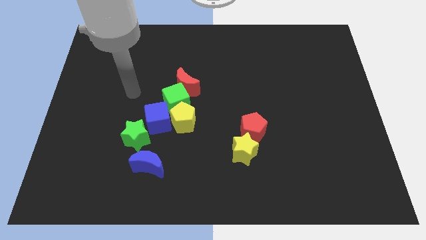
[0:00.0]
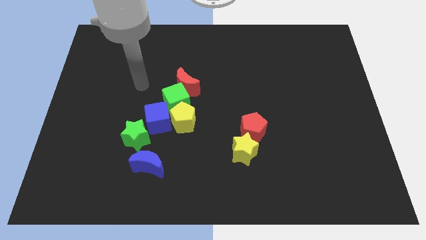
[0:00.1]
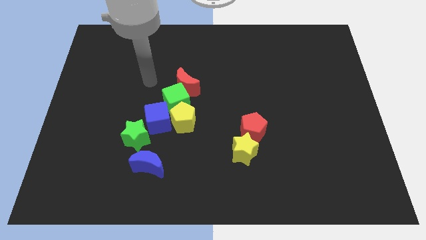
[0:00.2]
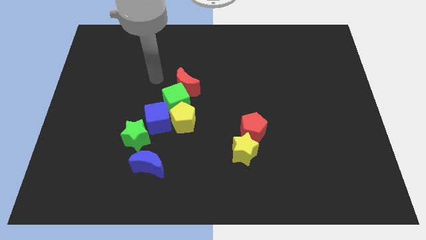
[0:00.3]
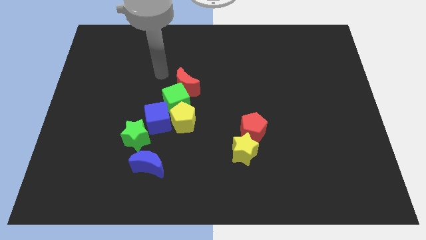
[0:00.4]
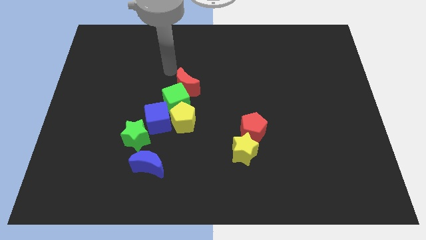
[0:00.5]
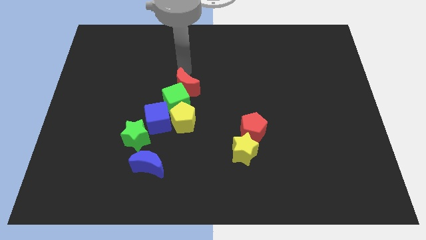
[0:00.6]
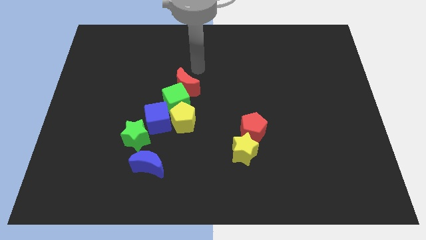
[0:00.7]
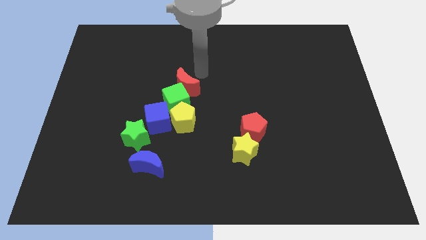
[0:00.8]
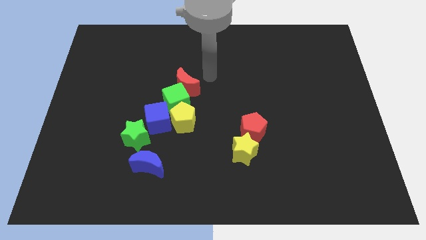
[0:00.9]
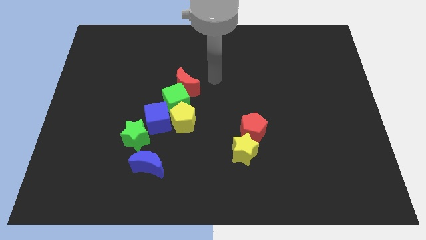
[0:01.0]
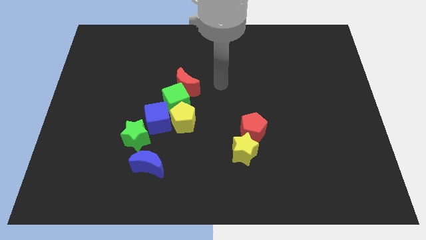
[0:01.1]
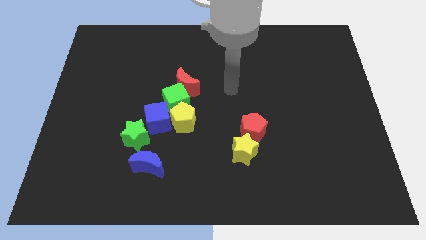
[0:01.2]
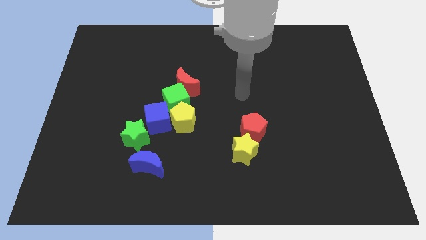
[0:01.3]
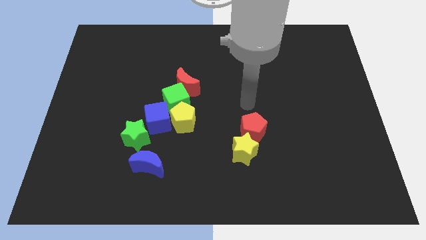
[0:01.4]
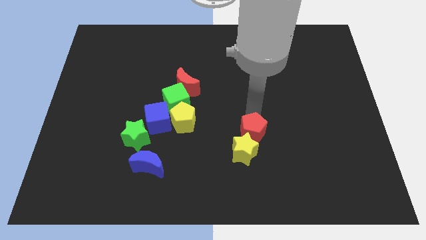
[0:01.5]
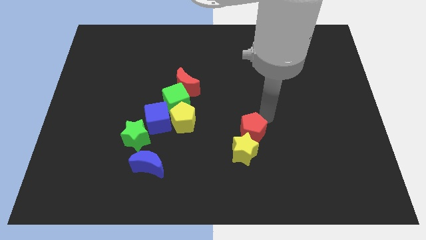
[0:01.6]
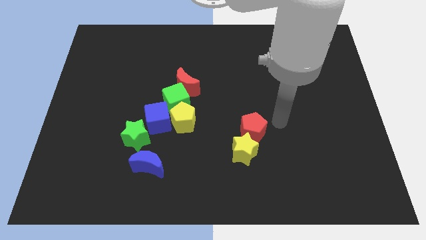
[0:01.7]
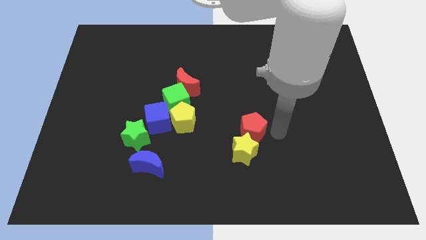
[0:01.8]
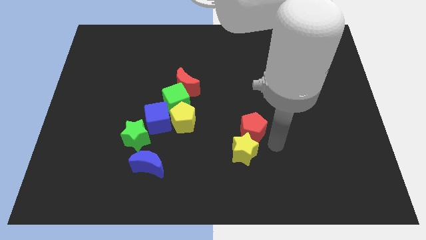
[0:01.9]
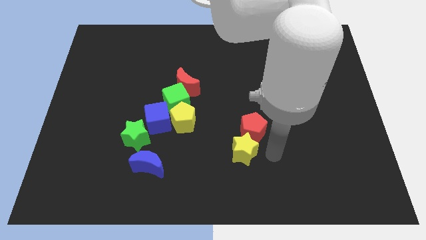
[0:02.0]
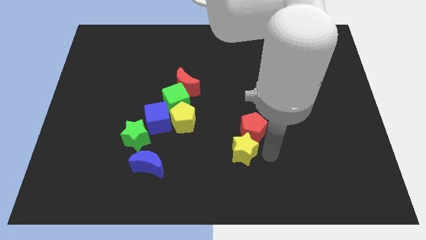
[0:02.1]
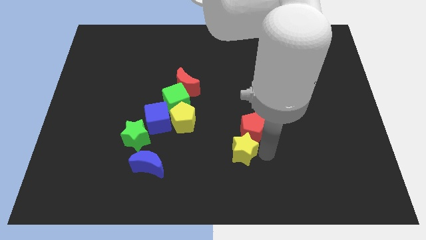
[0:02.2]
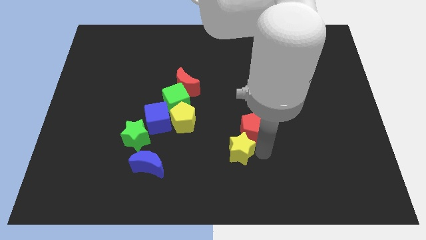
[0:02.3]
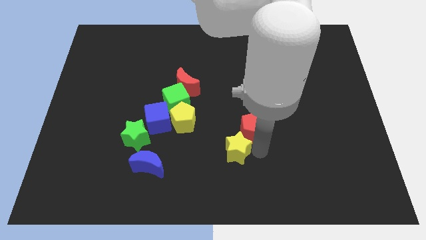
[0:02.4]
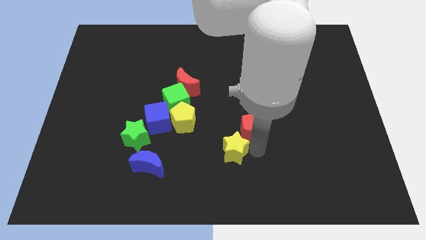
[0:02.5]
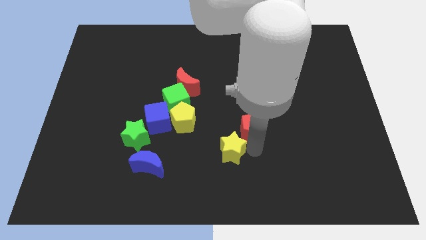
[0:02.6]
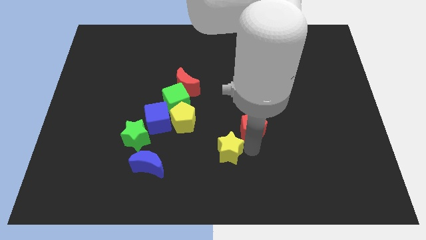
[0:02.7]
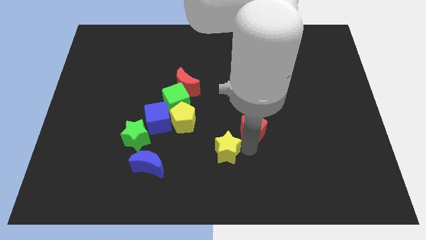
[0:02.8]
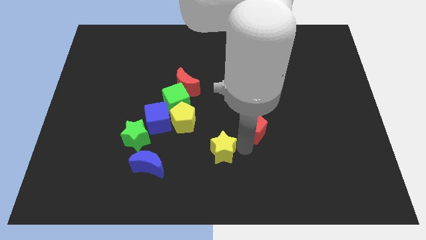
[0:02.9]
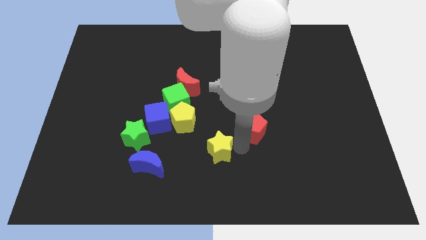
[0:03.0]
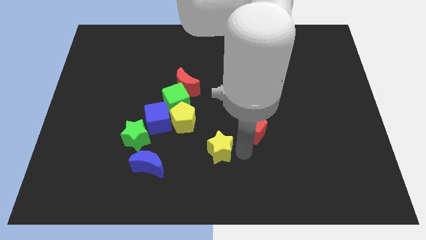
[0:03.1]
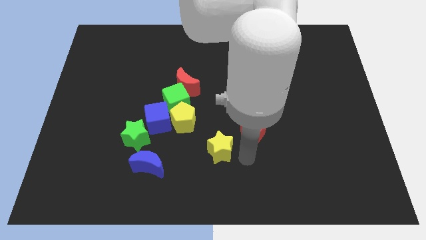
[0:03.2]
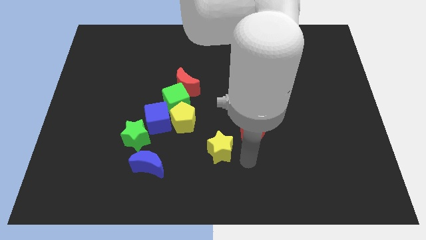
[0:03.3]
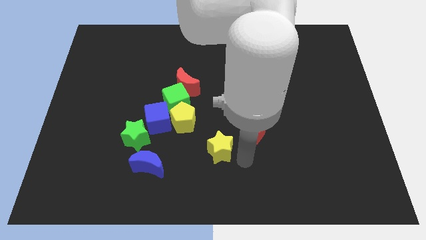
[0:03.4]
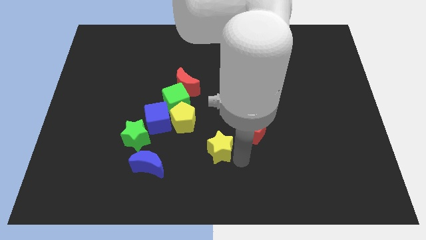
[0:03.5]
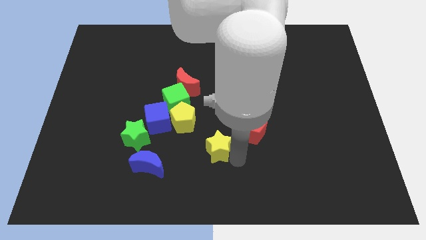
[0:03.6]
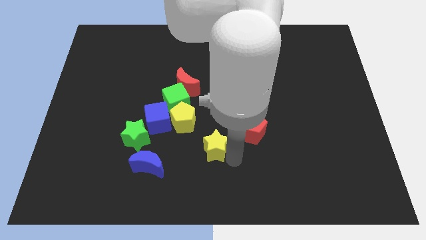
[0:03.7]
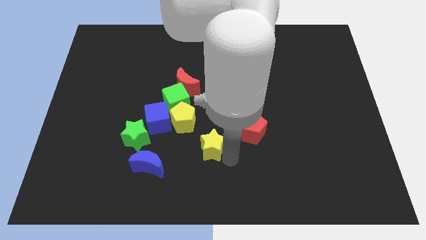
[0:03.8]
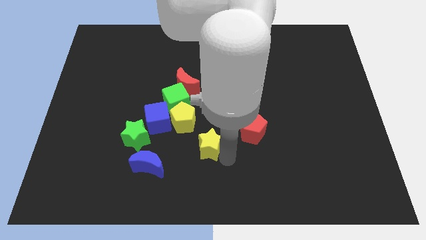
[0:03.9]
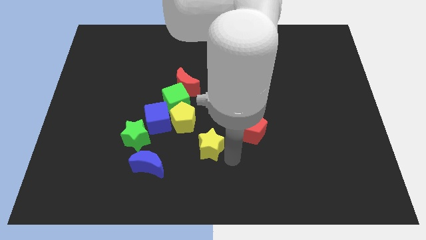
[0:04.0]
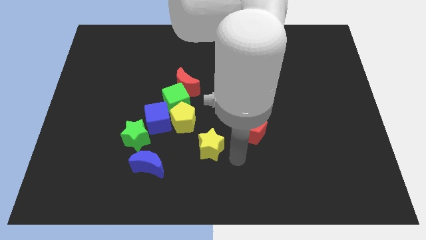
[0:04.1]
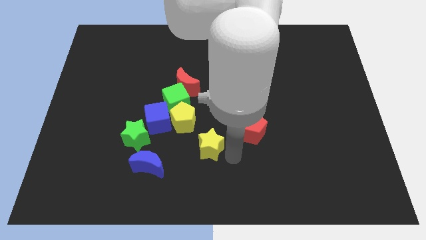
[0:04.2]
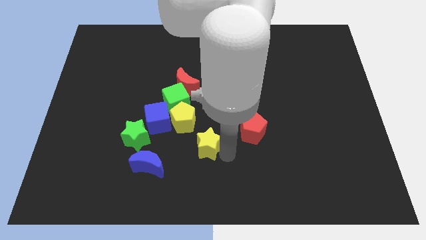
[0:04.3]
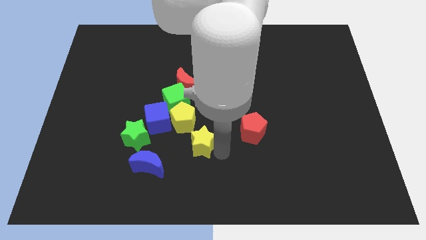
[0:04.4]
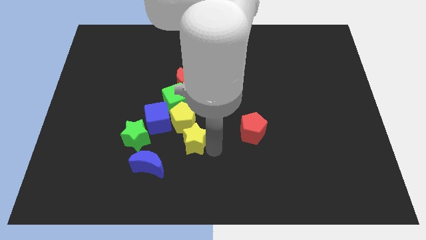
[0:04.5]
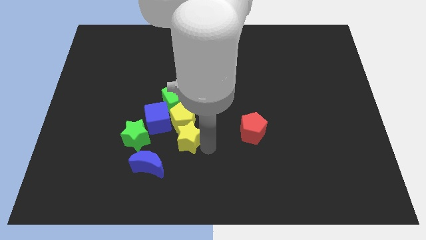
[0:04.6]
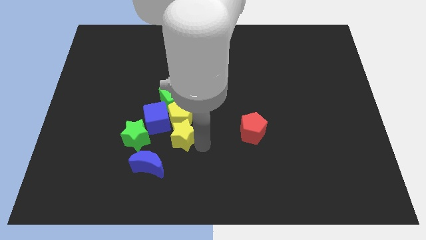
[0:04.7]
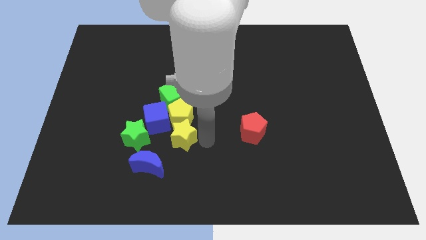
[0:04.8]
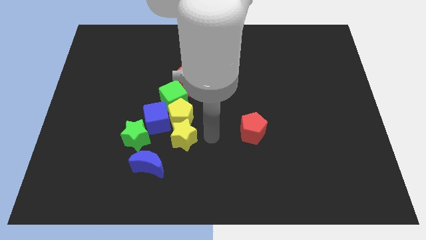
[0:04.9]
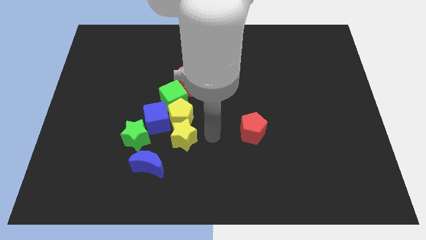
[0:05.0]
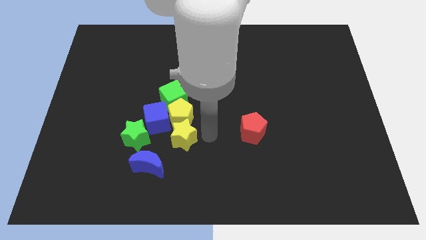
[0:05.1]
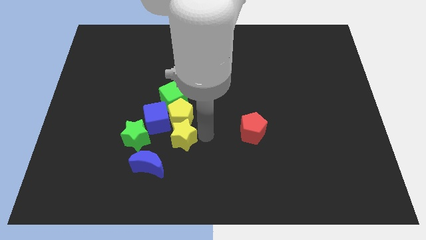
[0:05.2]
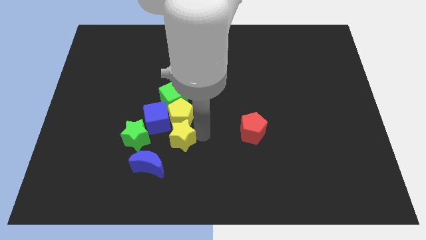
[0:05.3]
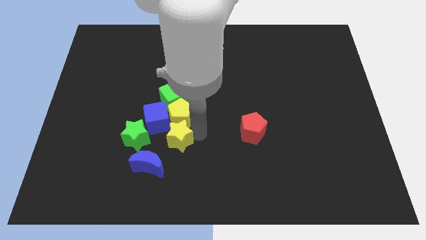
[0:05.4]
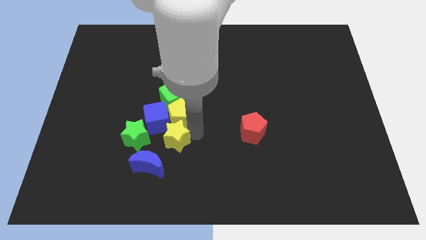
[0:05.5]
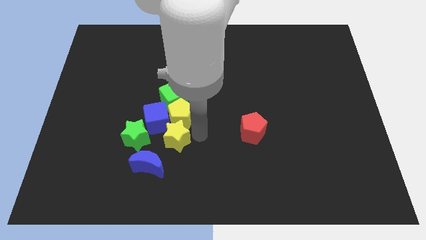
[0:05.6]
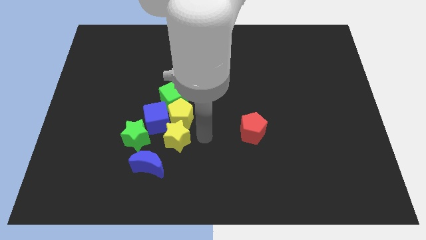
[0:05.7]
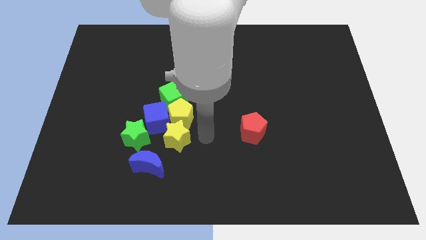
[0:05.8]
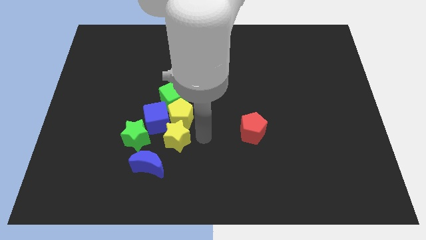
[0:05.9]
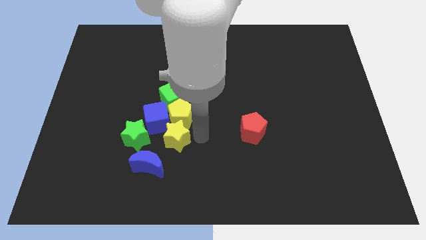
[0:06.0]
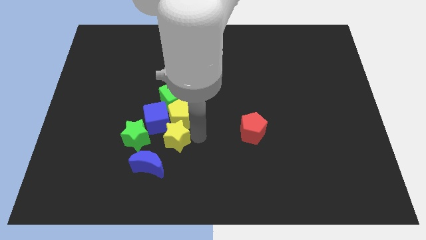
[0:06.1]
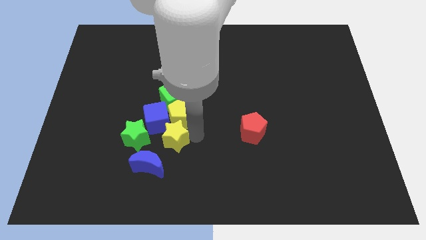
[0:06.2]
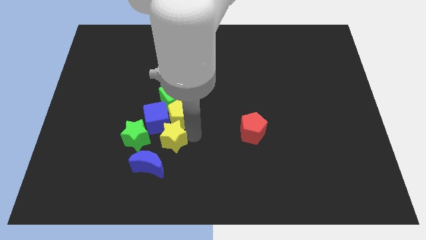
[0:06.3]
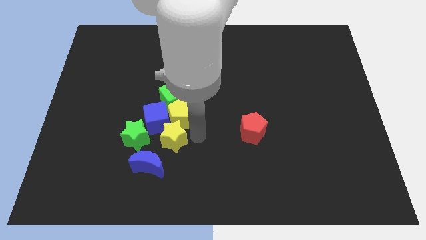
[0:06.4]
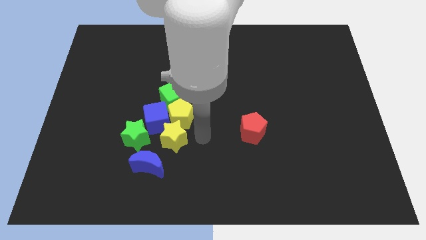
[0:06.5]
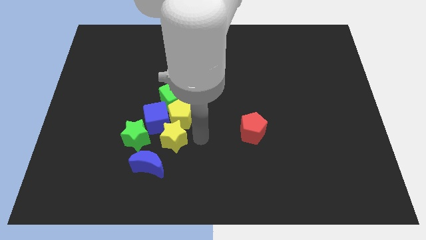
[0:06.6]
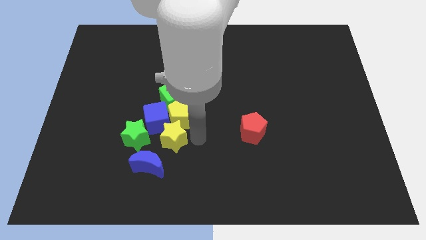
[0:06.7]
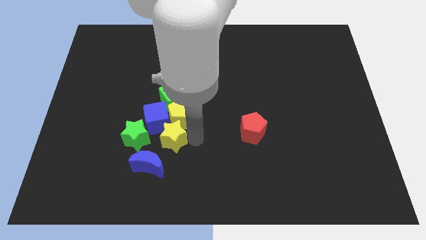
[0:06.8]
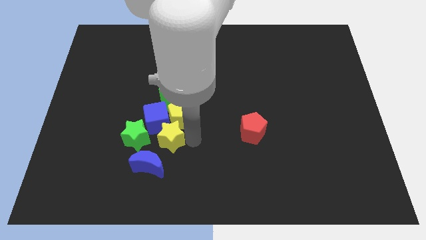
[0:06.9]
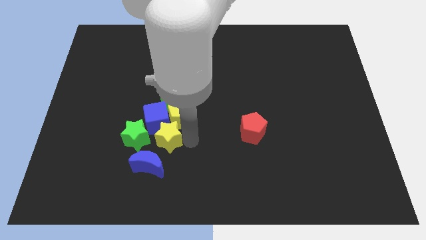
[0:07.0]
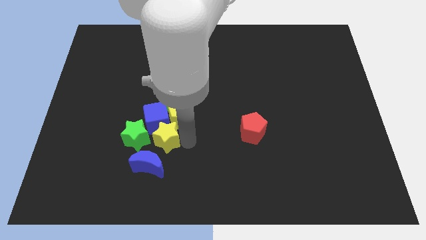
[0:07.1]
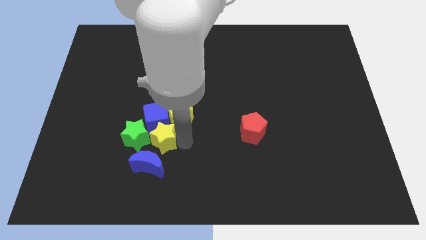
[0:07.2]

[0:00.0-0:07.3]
move the yellow star to the green star
